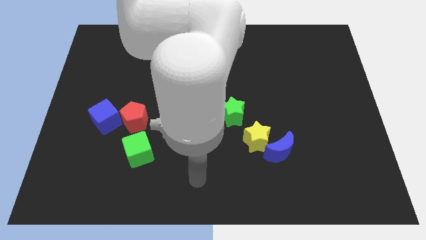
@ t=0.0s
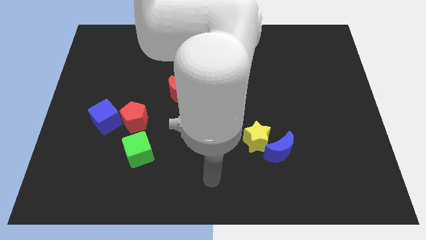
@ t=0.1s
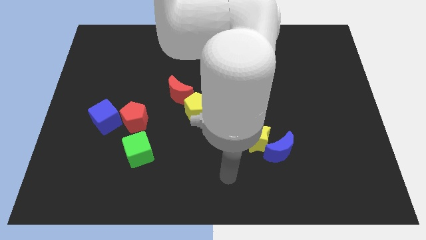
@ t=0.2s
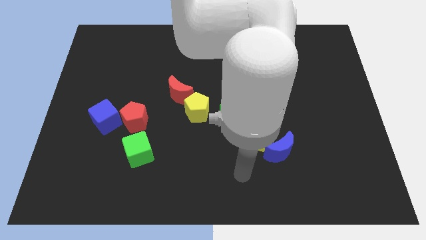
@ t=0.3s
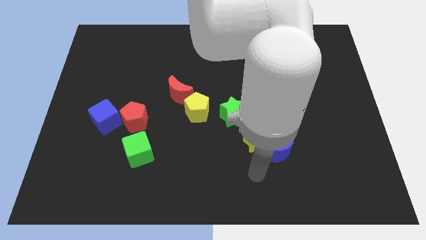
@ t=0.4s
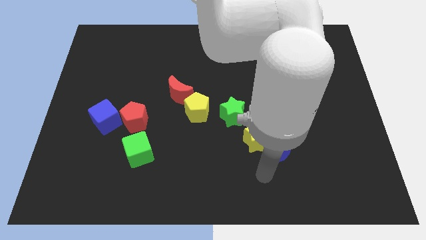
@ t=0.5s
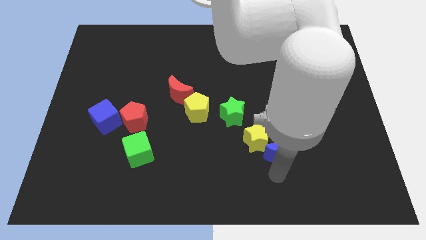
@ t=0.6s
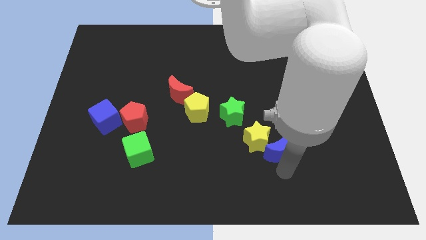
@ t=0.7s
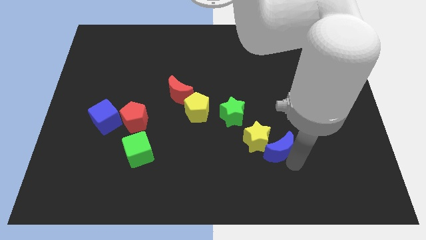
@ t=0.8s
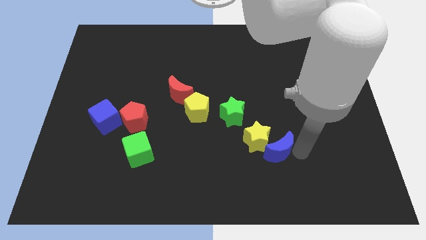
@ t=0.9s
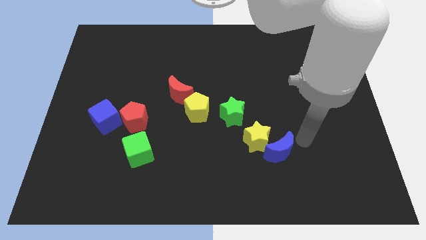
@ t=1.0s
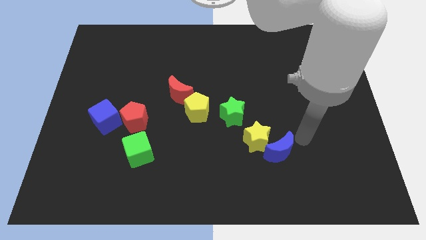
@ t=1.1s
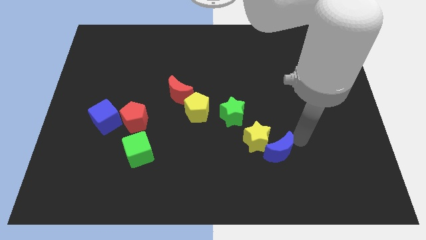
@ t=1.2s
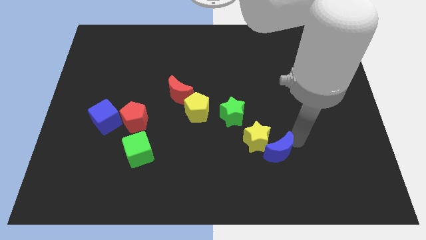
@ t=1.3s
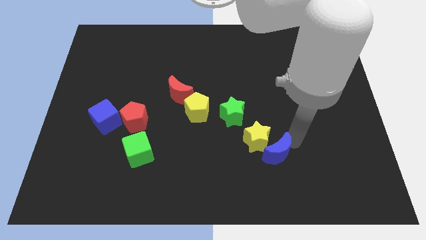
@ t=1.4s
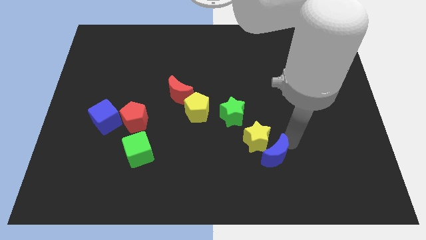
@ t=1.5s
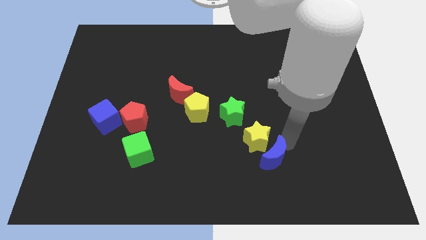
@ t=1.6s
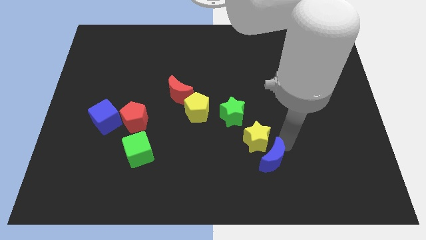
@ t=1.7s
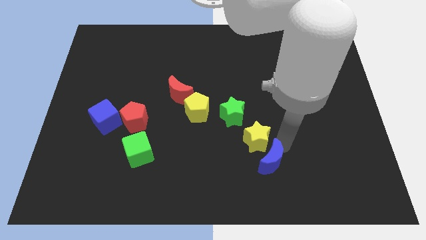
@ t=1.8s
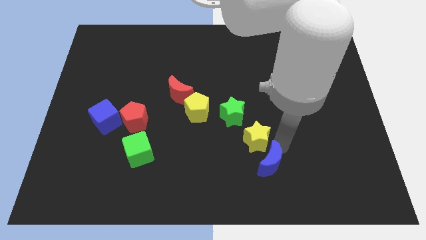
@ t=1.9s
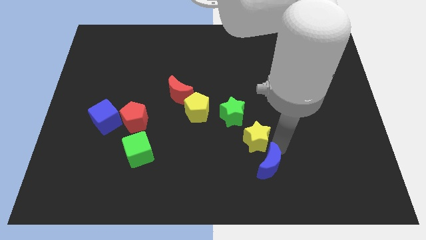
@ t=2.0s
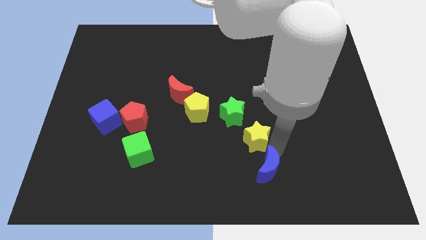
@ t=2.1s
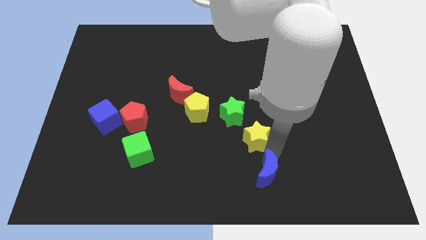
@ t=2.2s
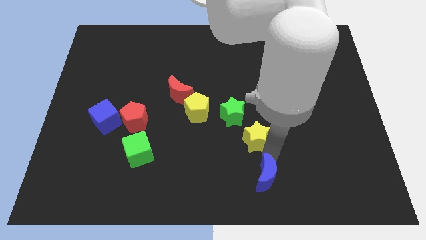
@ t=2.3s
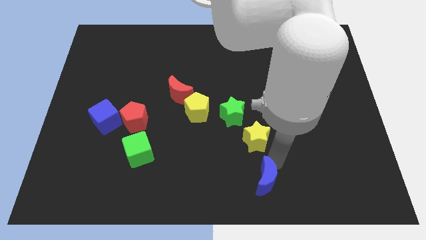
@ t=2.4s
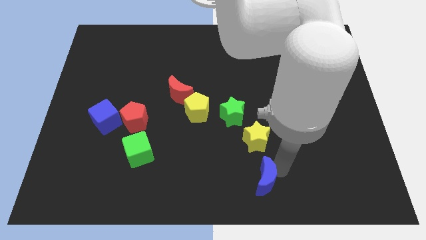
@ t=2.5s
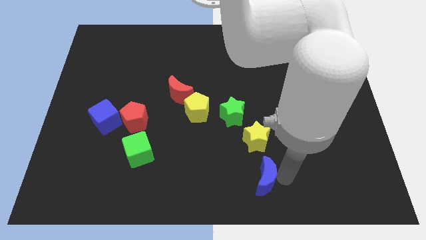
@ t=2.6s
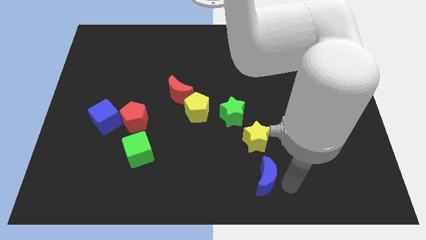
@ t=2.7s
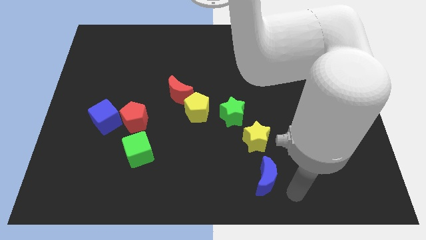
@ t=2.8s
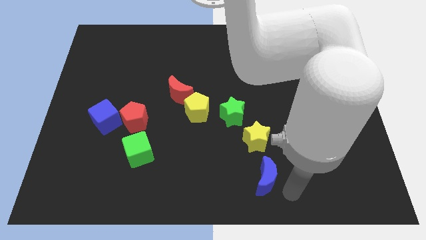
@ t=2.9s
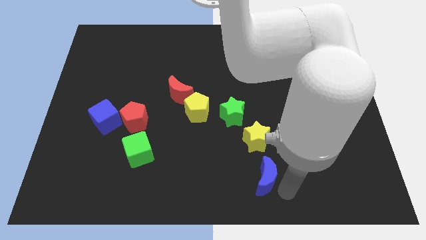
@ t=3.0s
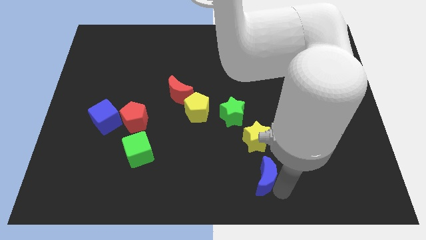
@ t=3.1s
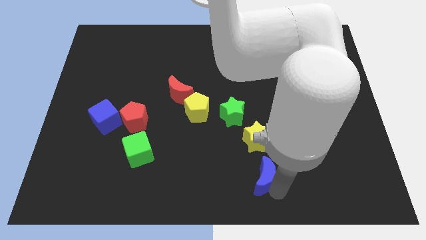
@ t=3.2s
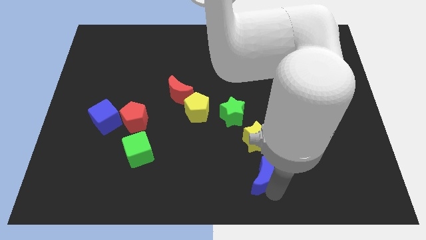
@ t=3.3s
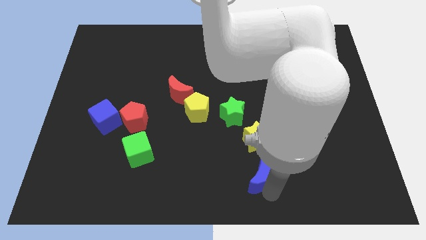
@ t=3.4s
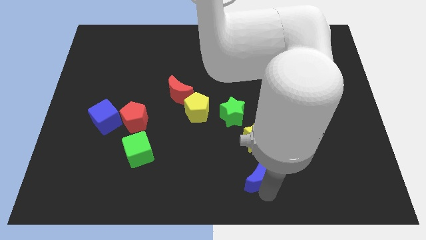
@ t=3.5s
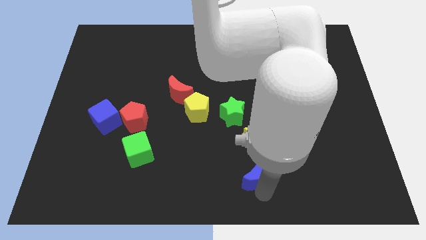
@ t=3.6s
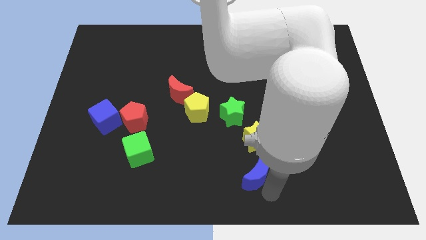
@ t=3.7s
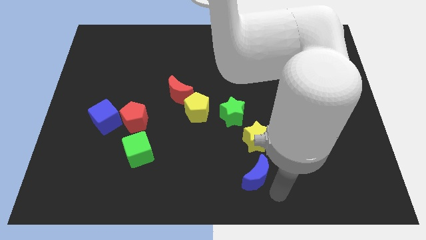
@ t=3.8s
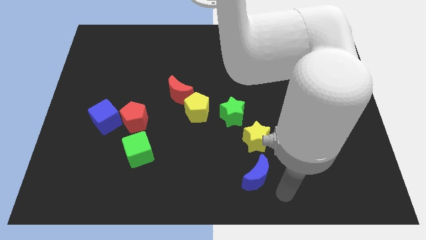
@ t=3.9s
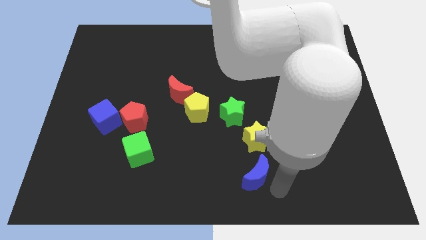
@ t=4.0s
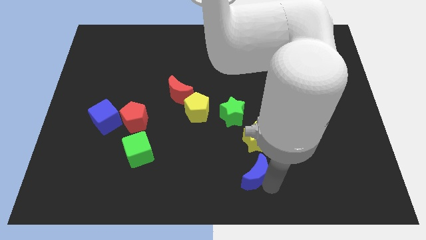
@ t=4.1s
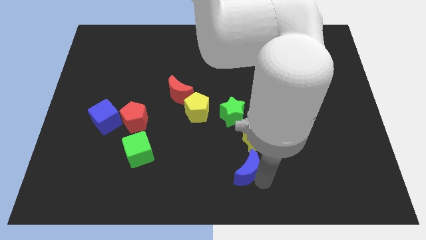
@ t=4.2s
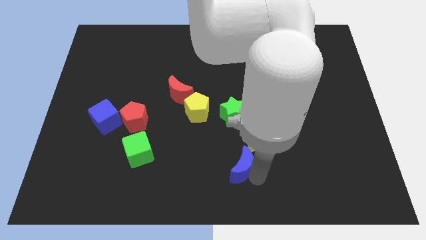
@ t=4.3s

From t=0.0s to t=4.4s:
slide the blue moon somewhat left

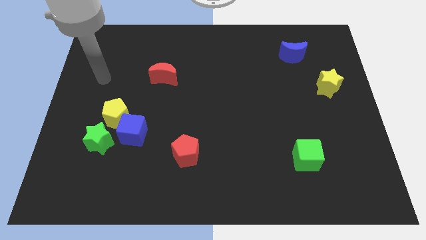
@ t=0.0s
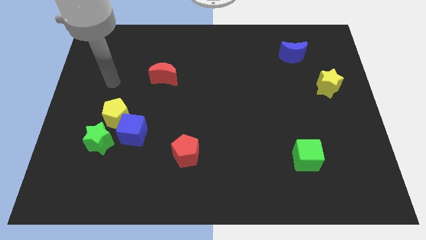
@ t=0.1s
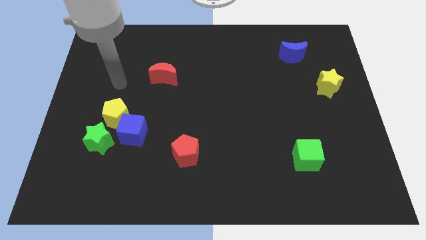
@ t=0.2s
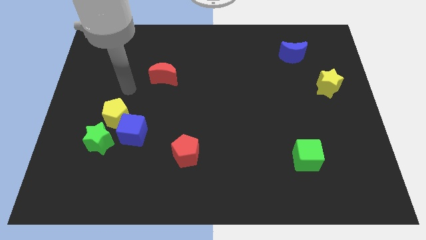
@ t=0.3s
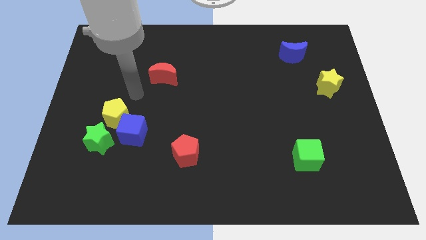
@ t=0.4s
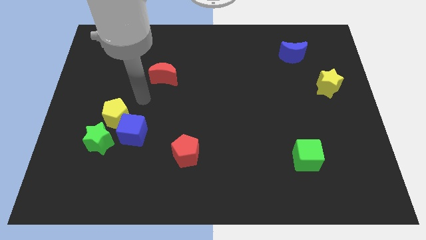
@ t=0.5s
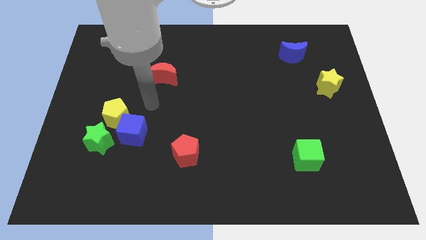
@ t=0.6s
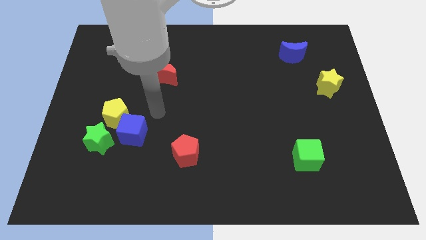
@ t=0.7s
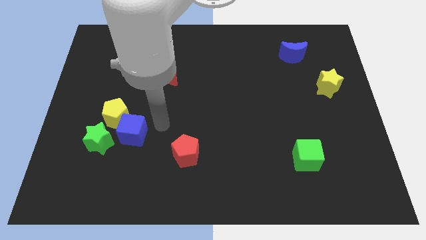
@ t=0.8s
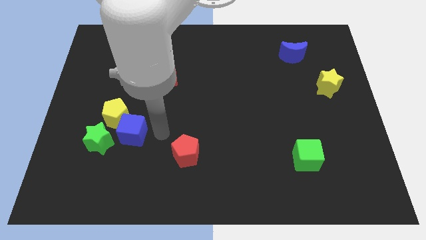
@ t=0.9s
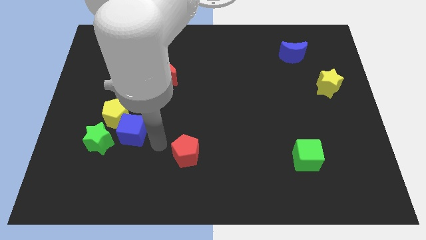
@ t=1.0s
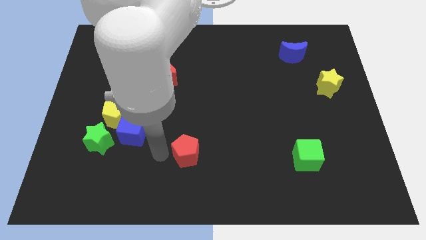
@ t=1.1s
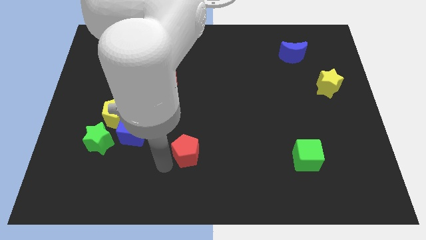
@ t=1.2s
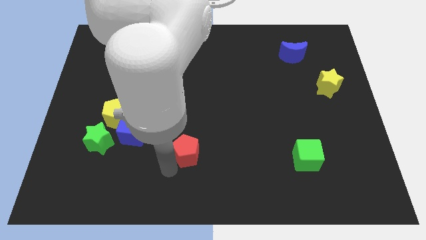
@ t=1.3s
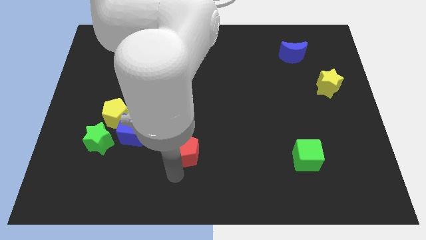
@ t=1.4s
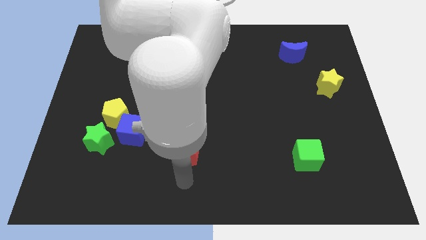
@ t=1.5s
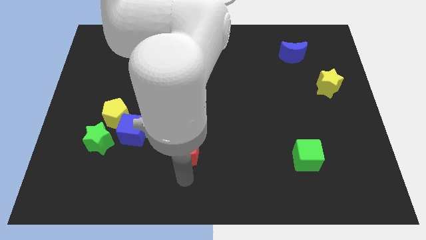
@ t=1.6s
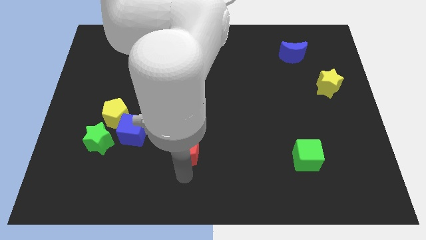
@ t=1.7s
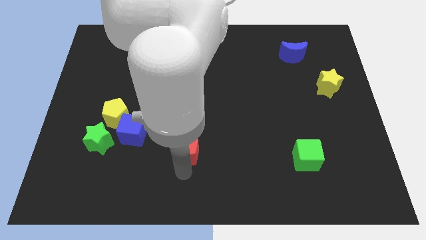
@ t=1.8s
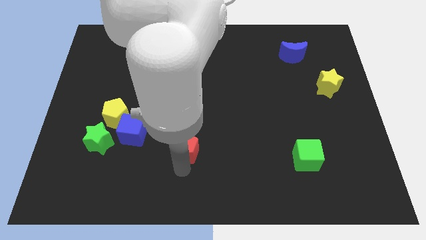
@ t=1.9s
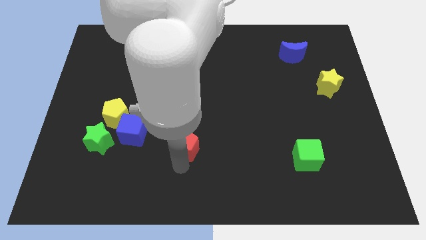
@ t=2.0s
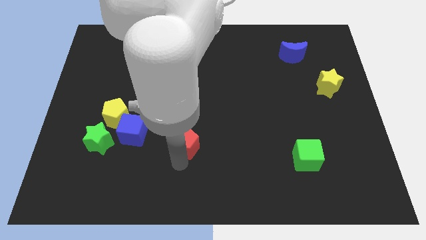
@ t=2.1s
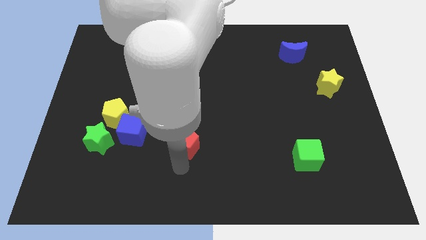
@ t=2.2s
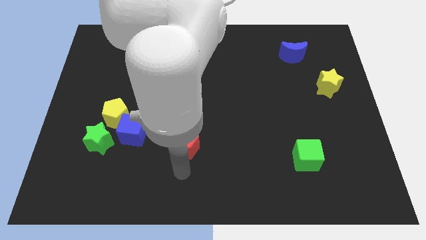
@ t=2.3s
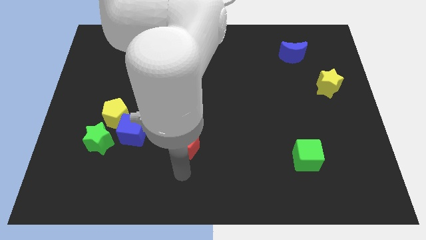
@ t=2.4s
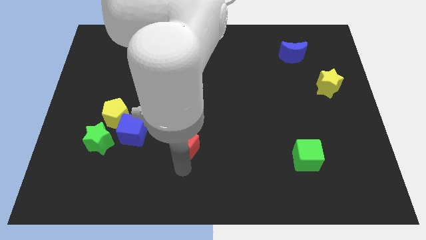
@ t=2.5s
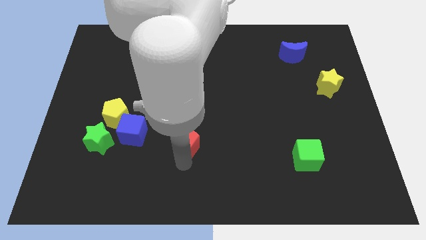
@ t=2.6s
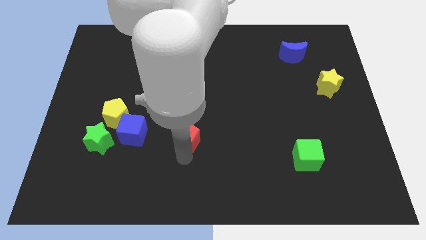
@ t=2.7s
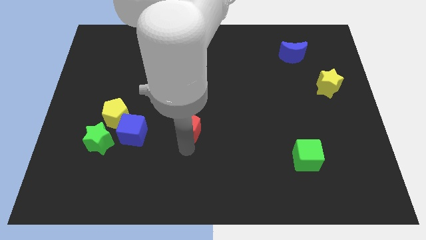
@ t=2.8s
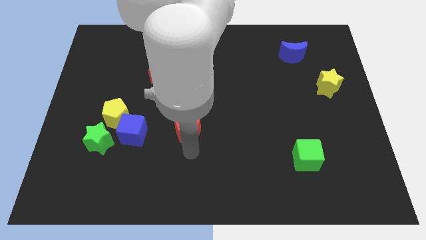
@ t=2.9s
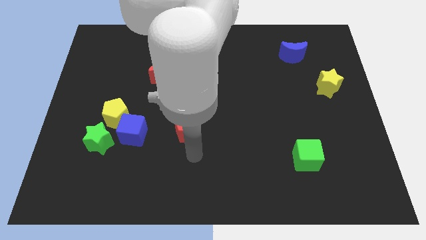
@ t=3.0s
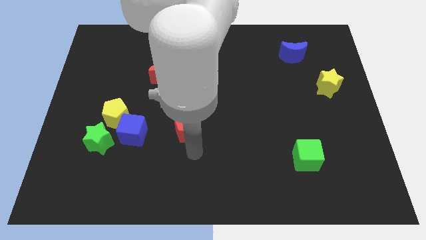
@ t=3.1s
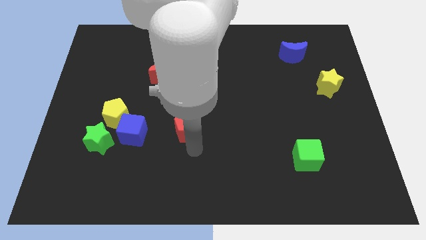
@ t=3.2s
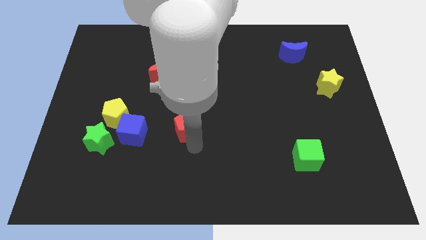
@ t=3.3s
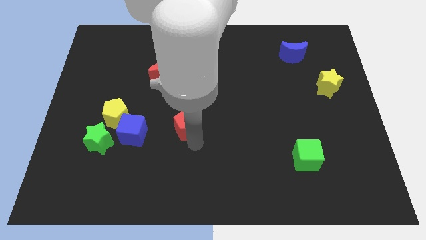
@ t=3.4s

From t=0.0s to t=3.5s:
slide the red pentagon upwards a little bit
